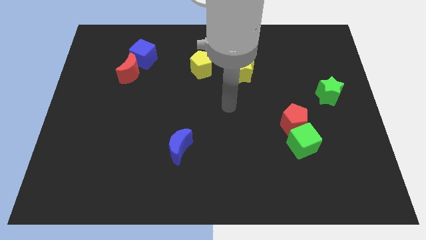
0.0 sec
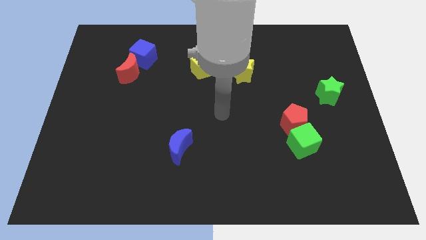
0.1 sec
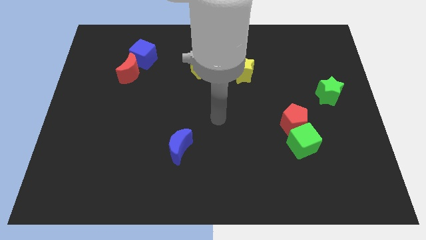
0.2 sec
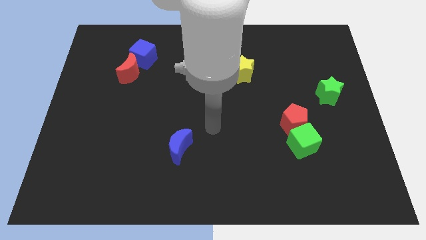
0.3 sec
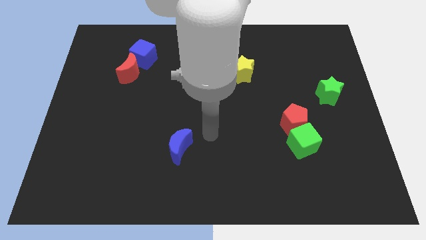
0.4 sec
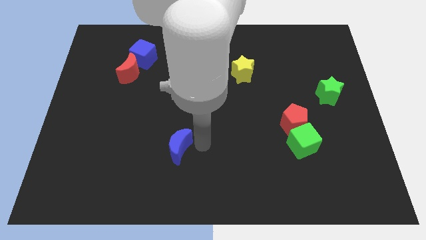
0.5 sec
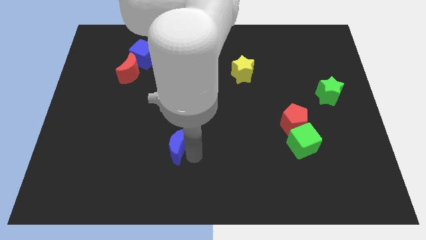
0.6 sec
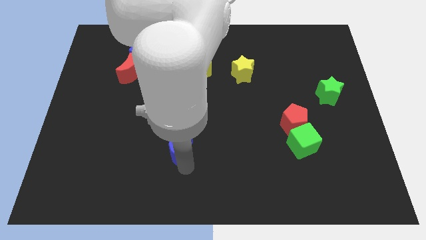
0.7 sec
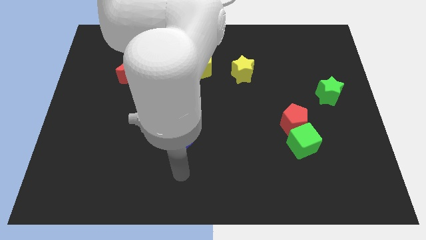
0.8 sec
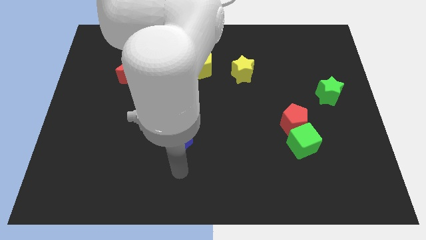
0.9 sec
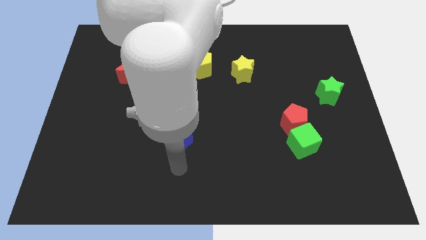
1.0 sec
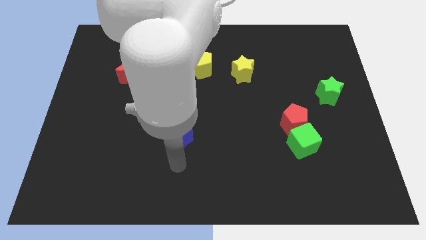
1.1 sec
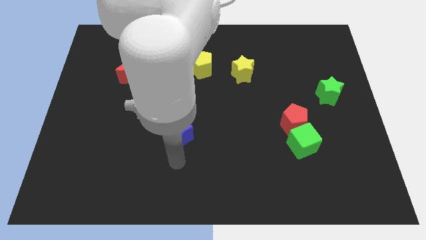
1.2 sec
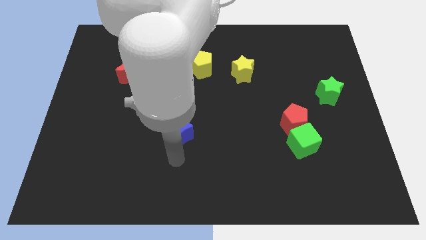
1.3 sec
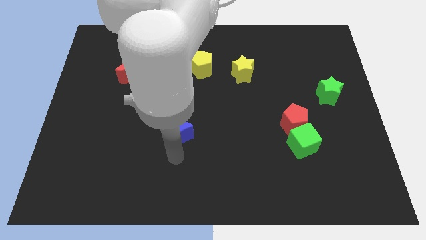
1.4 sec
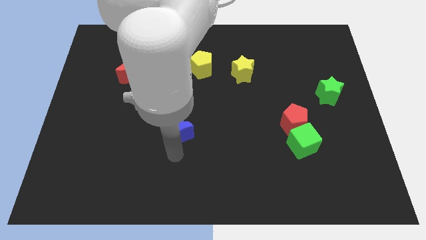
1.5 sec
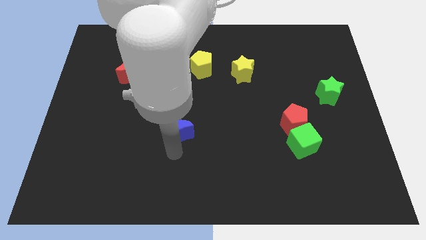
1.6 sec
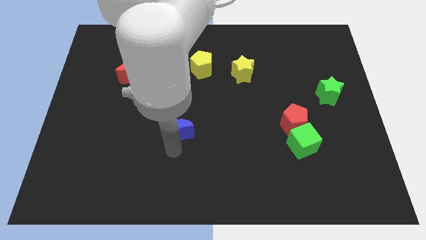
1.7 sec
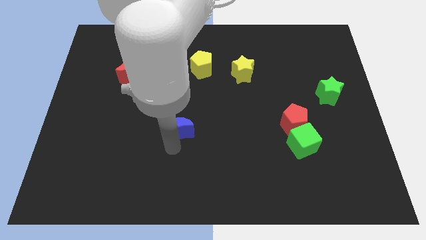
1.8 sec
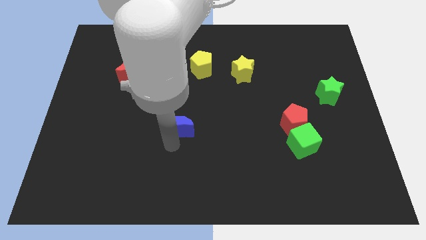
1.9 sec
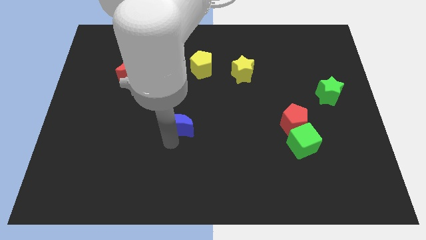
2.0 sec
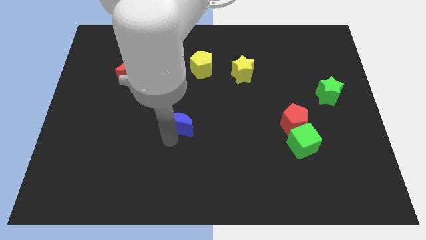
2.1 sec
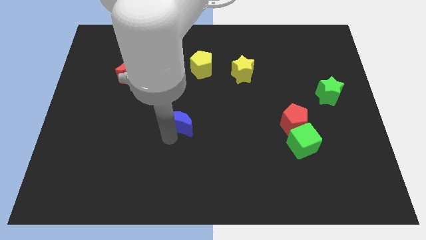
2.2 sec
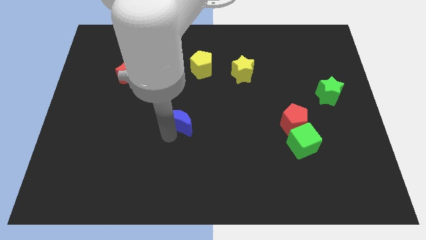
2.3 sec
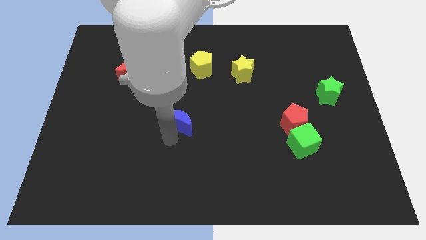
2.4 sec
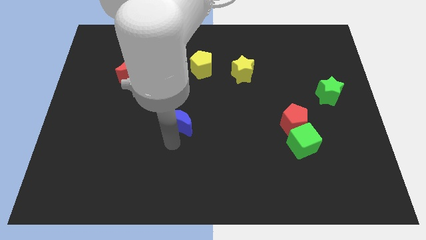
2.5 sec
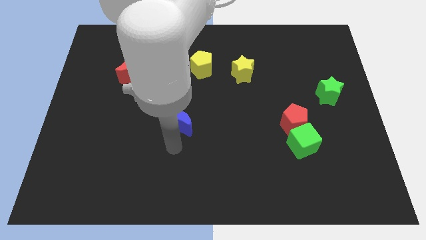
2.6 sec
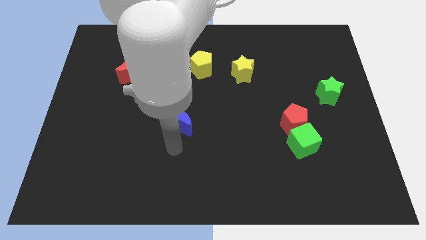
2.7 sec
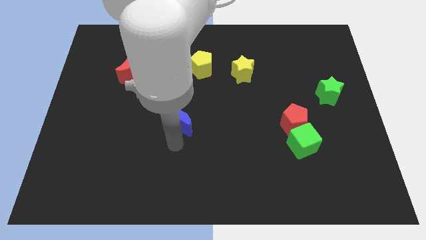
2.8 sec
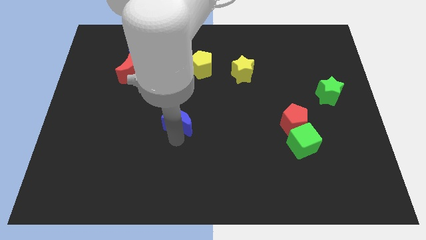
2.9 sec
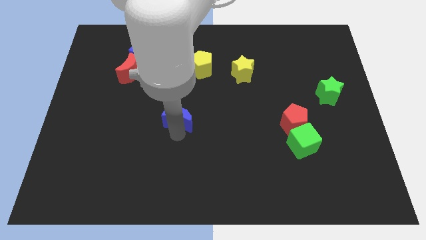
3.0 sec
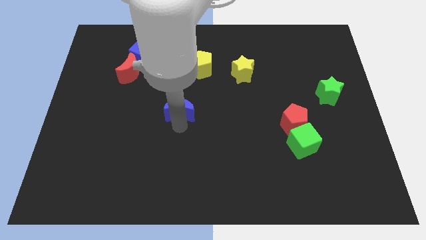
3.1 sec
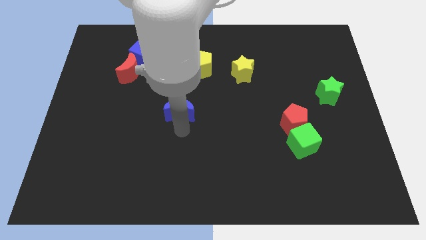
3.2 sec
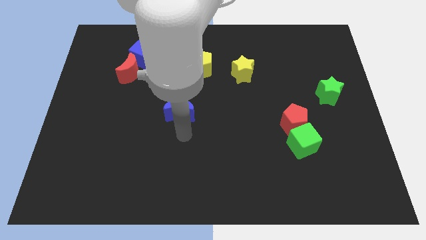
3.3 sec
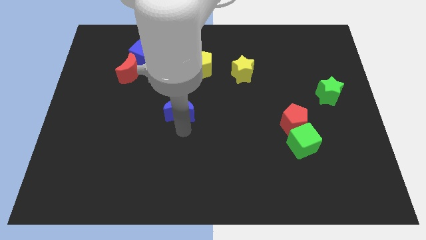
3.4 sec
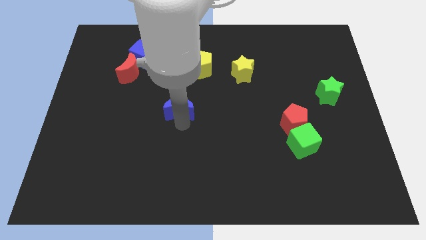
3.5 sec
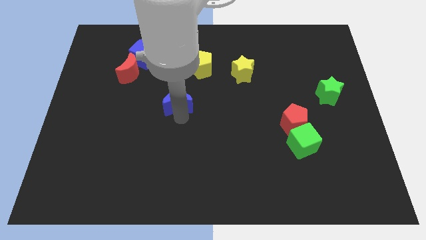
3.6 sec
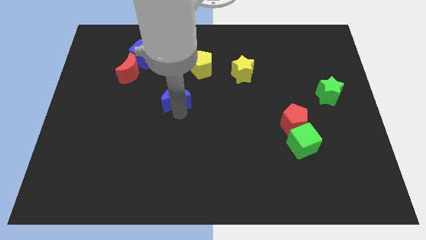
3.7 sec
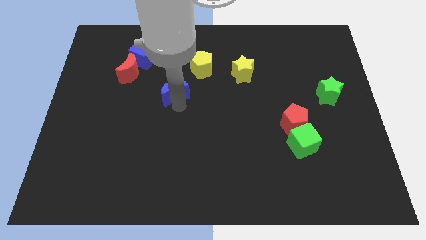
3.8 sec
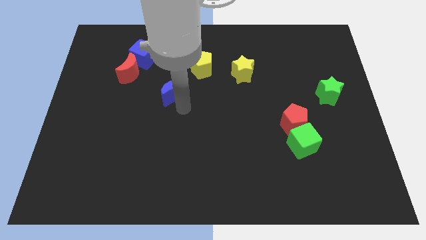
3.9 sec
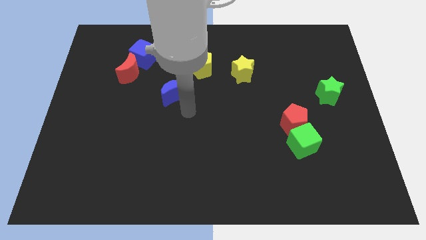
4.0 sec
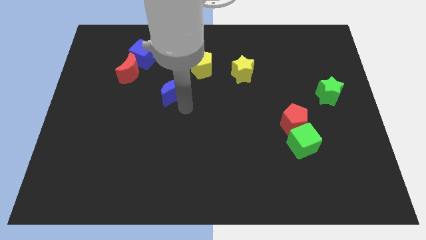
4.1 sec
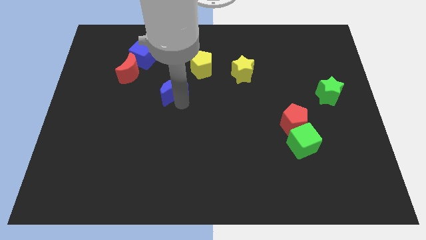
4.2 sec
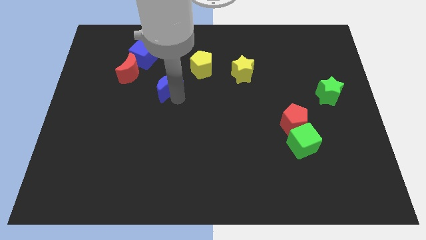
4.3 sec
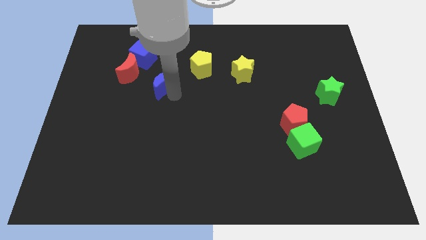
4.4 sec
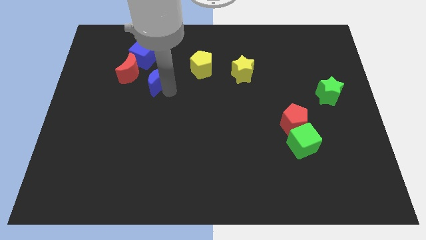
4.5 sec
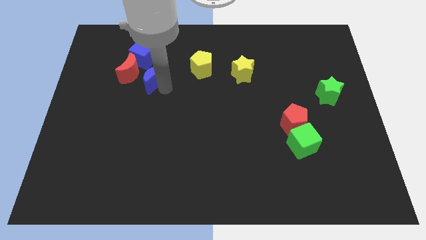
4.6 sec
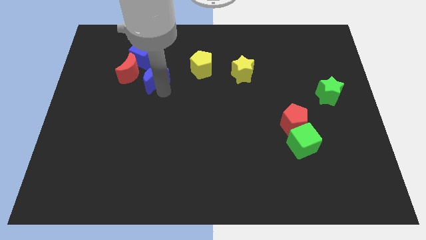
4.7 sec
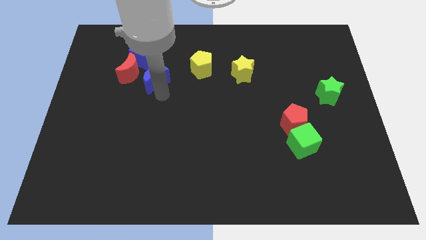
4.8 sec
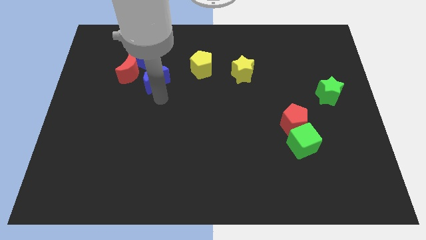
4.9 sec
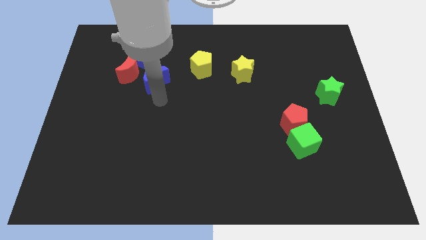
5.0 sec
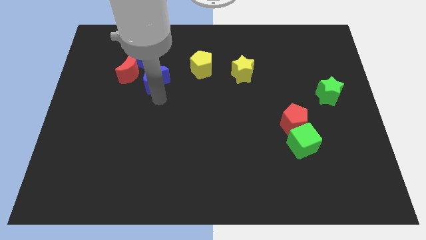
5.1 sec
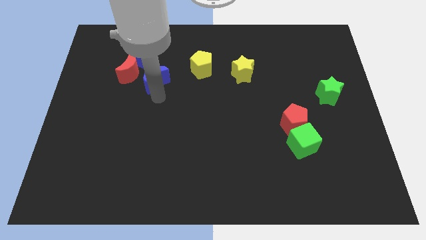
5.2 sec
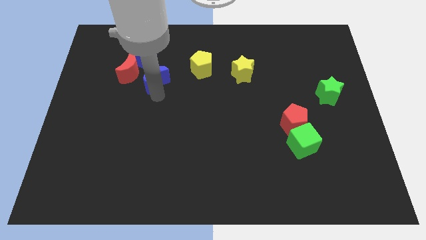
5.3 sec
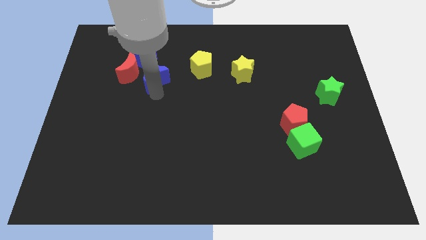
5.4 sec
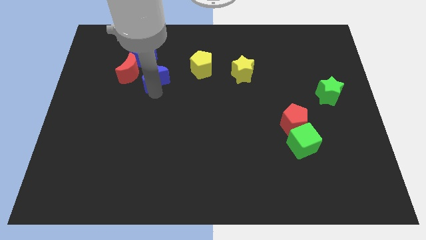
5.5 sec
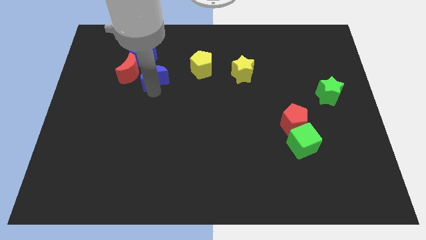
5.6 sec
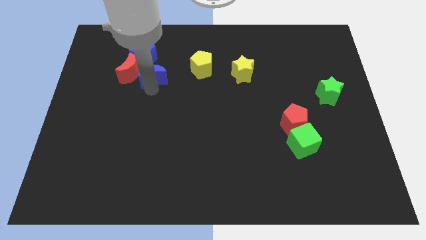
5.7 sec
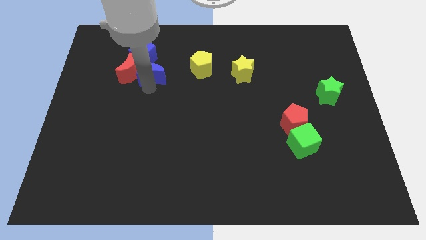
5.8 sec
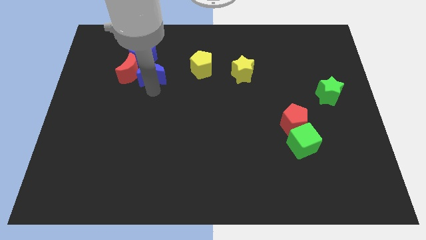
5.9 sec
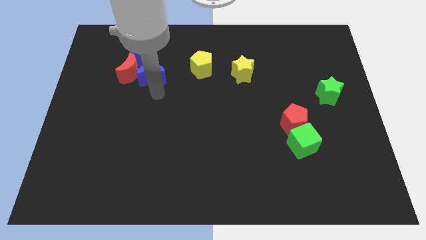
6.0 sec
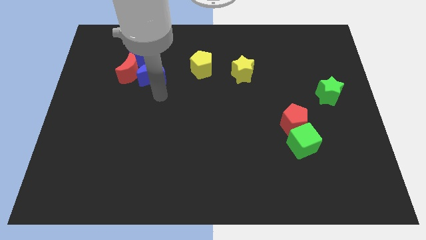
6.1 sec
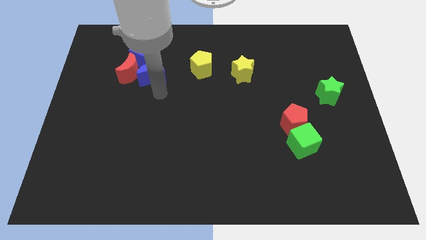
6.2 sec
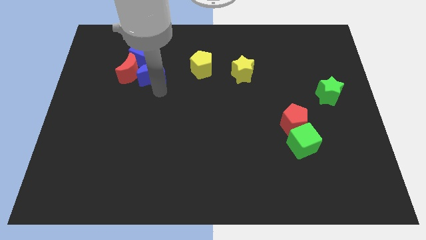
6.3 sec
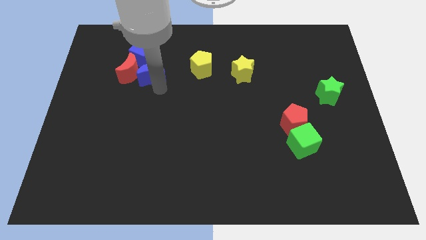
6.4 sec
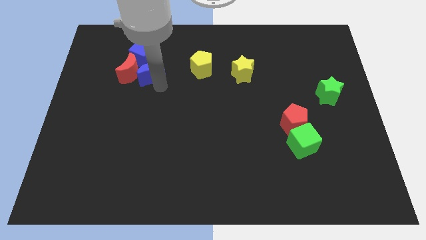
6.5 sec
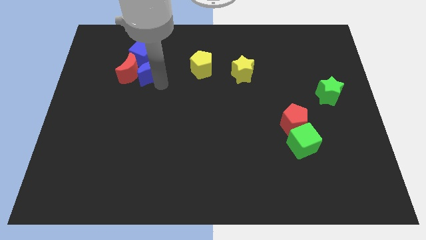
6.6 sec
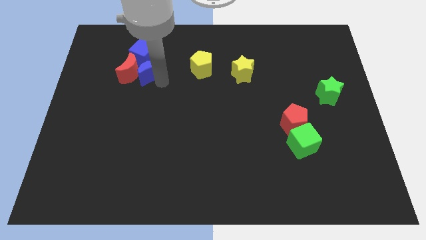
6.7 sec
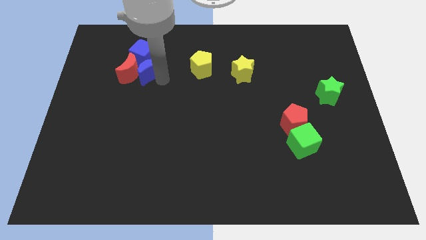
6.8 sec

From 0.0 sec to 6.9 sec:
push the blue moon close to the blue cube
